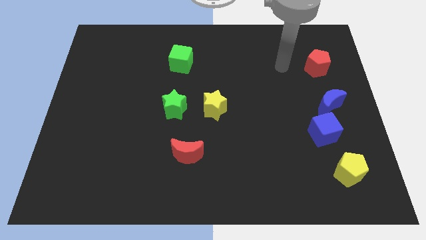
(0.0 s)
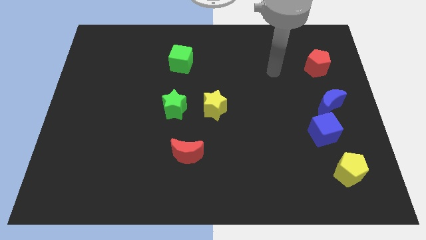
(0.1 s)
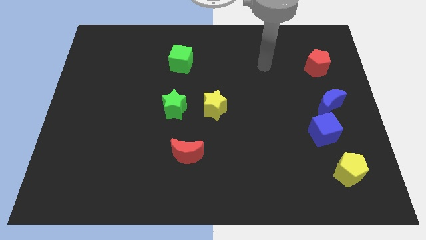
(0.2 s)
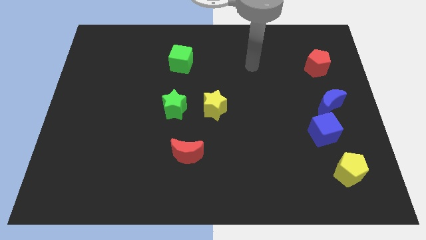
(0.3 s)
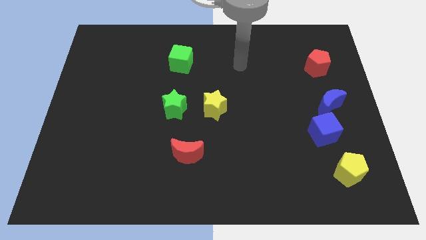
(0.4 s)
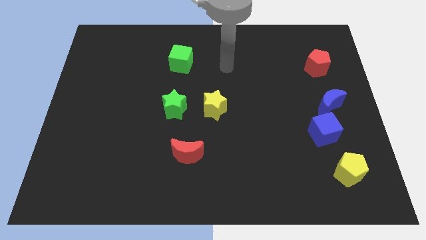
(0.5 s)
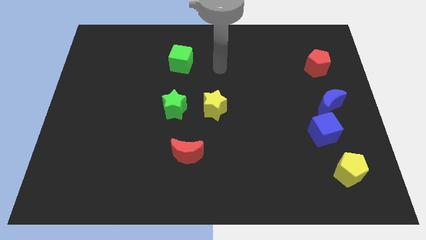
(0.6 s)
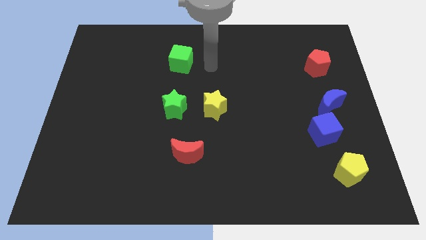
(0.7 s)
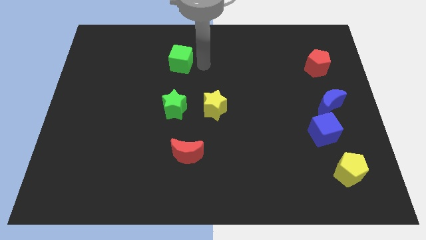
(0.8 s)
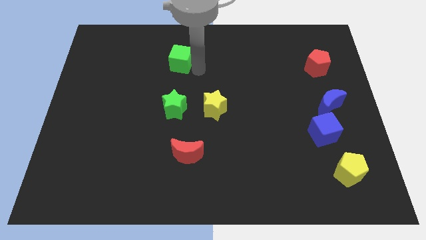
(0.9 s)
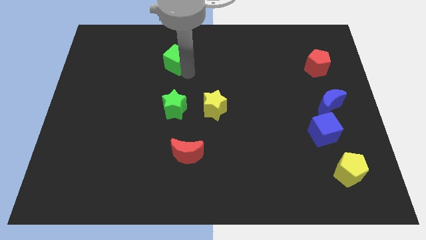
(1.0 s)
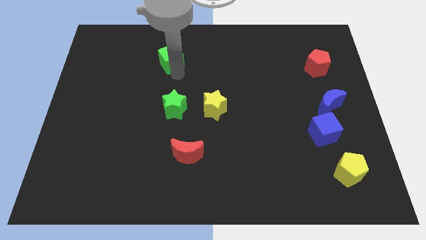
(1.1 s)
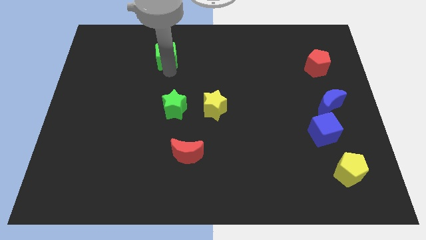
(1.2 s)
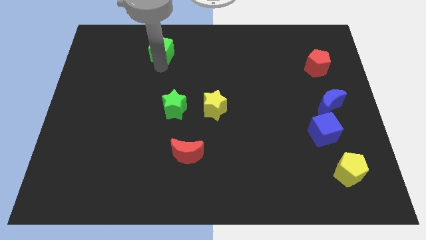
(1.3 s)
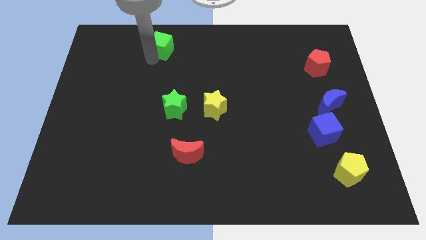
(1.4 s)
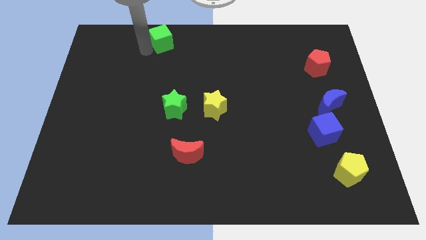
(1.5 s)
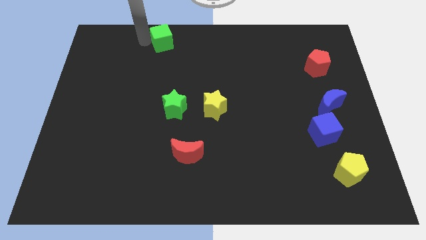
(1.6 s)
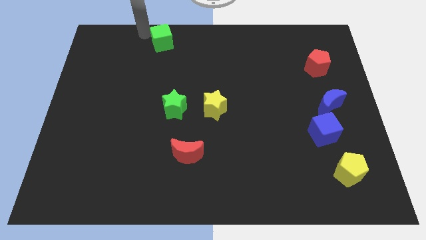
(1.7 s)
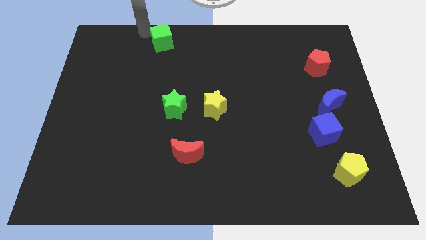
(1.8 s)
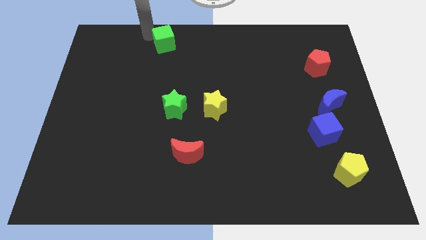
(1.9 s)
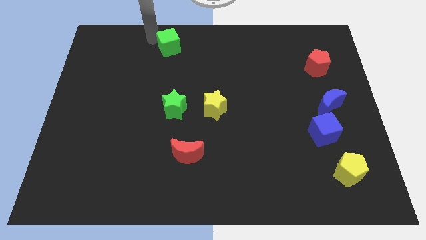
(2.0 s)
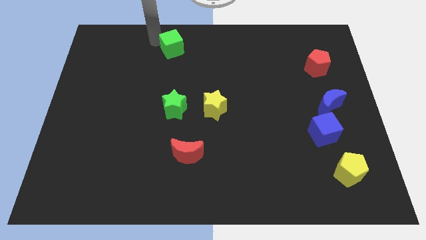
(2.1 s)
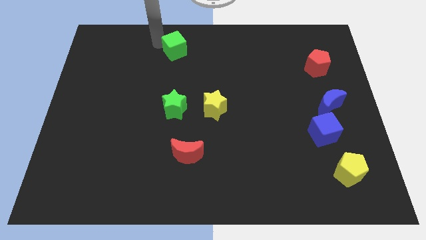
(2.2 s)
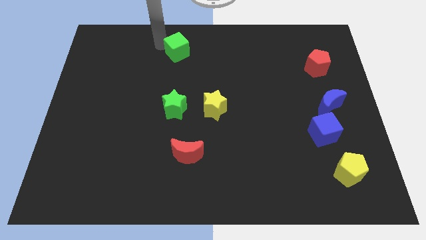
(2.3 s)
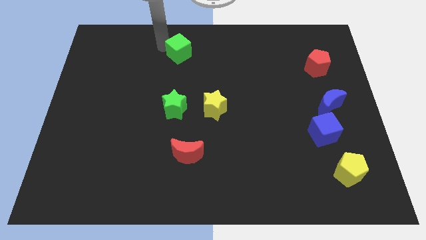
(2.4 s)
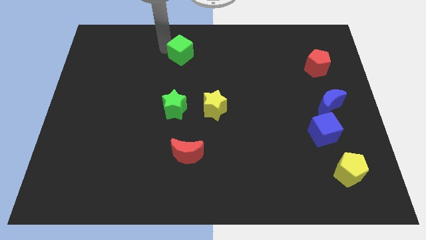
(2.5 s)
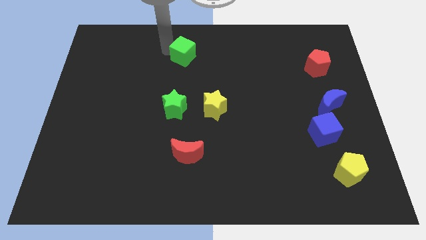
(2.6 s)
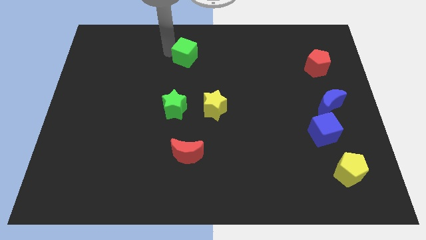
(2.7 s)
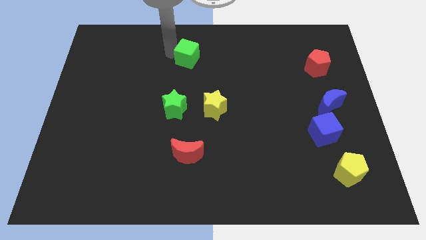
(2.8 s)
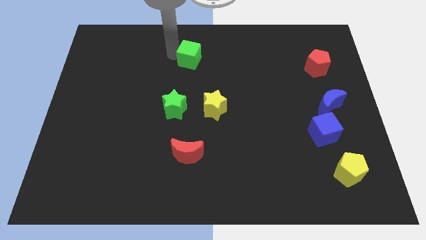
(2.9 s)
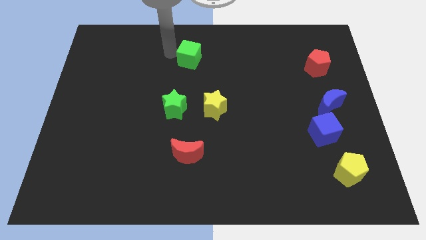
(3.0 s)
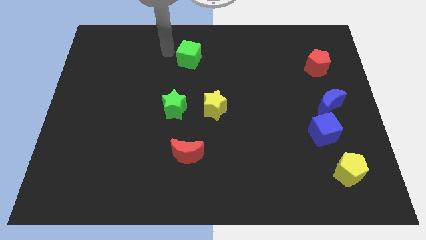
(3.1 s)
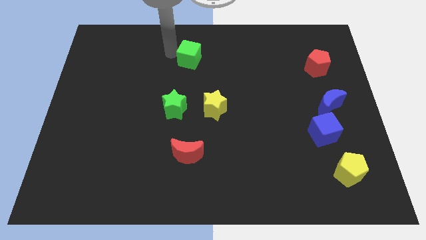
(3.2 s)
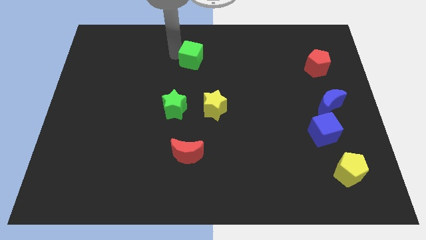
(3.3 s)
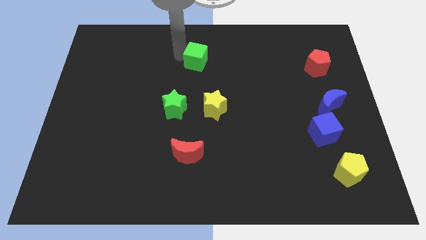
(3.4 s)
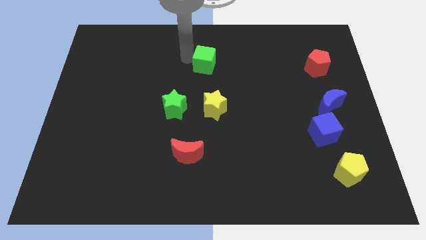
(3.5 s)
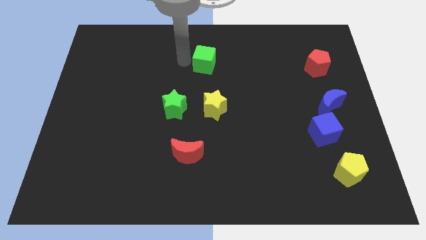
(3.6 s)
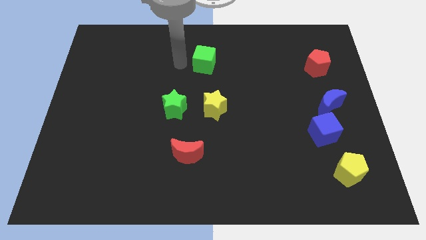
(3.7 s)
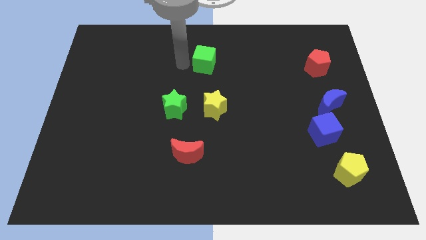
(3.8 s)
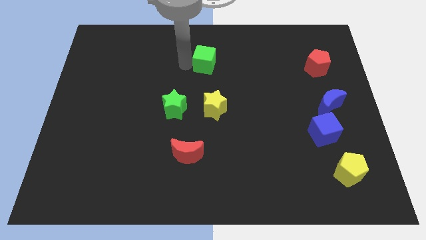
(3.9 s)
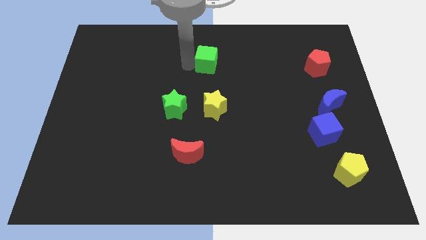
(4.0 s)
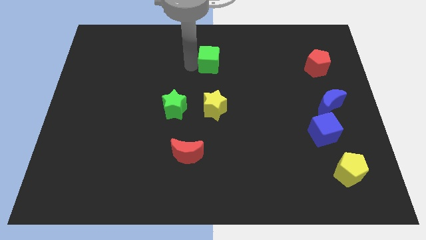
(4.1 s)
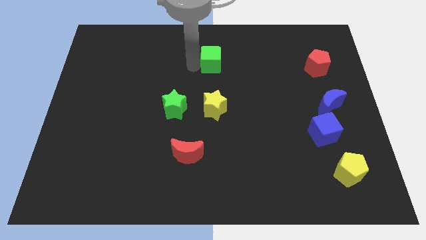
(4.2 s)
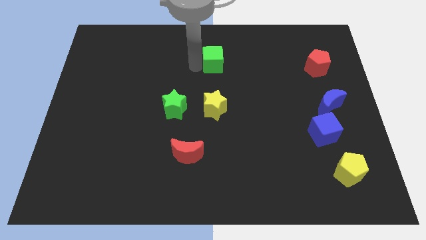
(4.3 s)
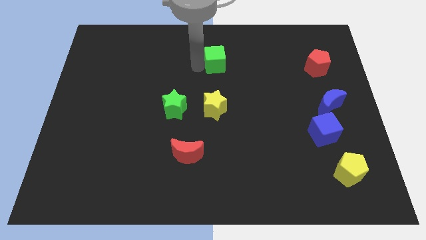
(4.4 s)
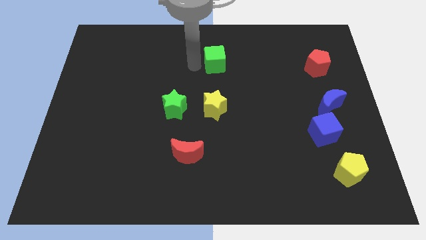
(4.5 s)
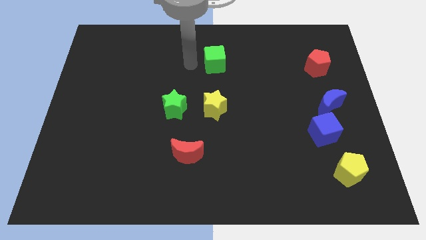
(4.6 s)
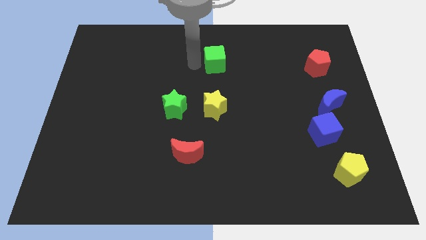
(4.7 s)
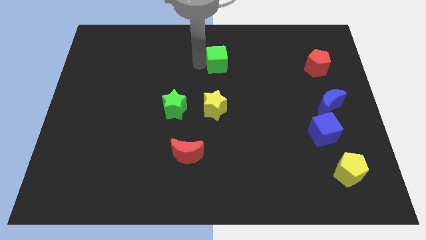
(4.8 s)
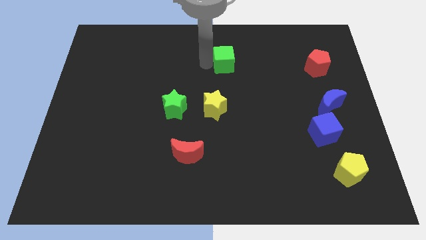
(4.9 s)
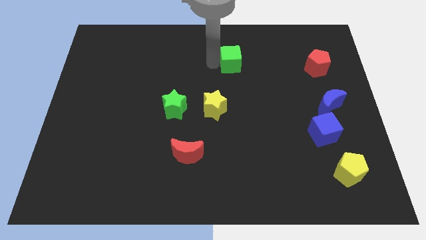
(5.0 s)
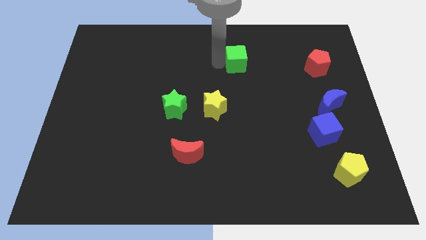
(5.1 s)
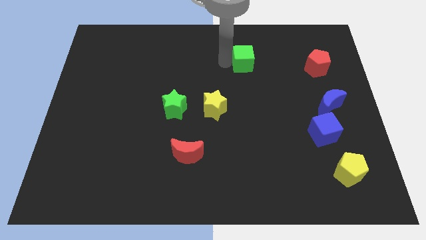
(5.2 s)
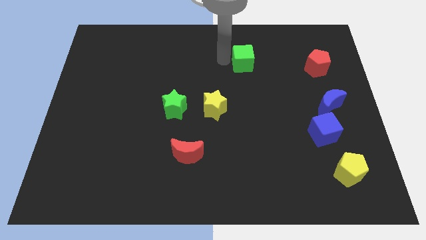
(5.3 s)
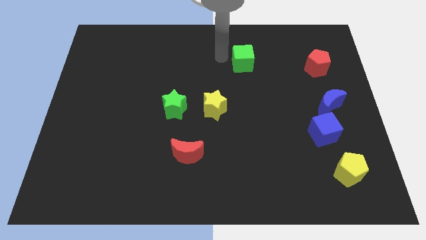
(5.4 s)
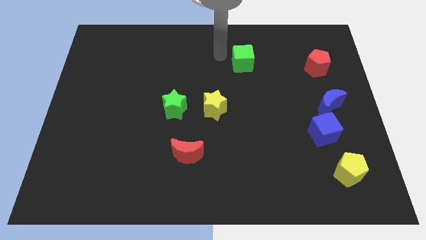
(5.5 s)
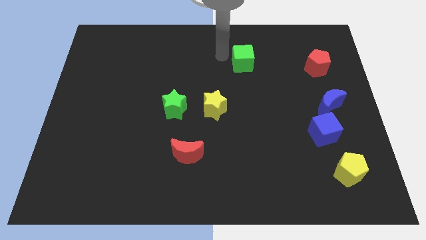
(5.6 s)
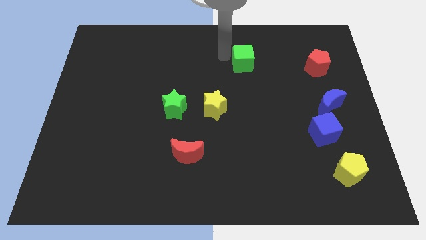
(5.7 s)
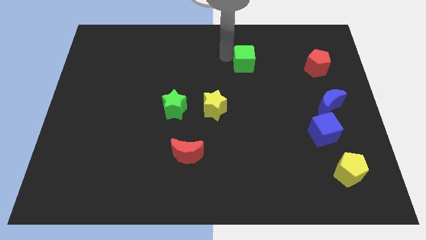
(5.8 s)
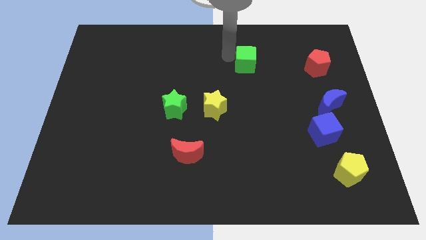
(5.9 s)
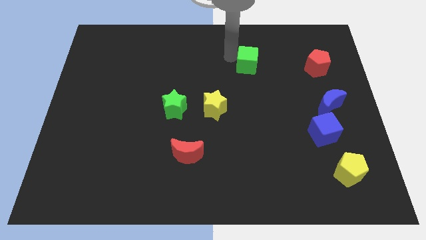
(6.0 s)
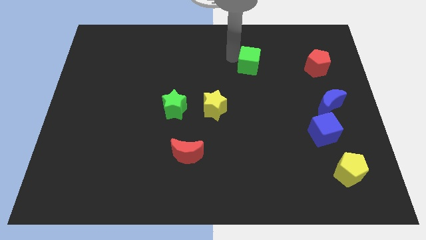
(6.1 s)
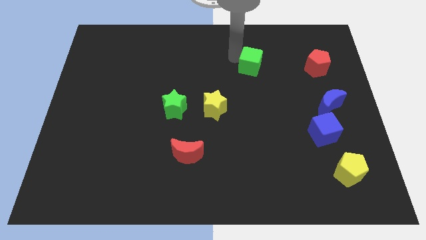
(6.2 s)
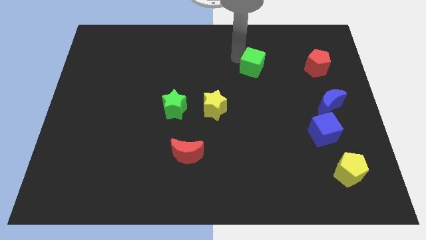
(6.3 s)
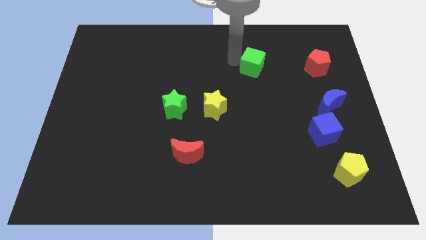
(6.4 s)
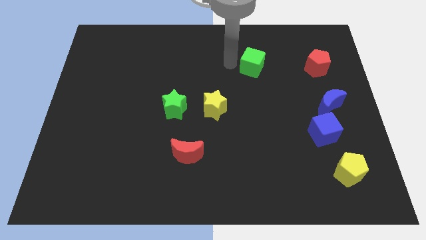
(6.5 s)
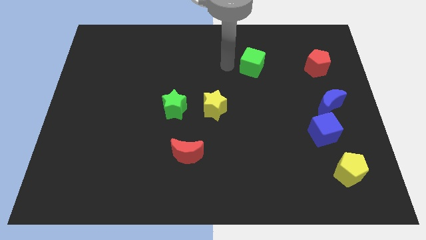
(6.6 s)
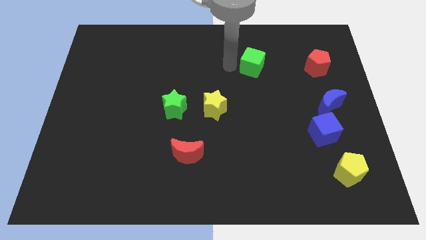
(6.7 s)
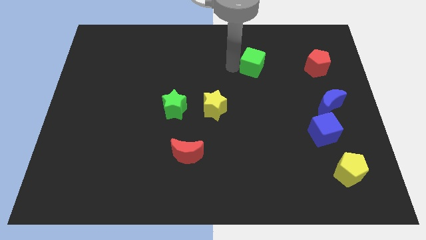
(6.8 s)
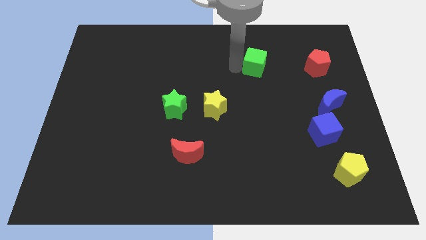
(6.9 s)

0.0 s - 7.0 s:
put the green cube to the left of the red pentagon
